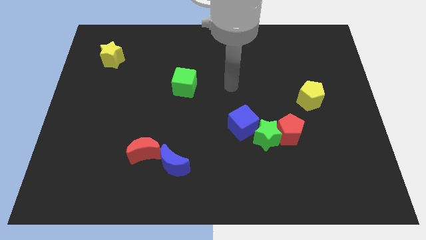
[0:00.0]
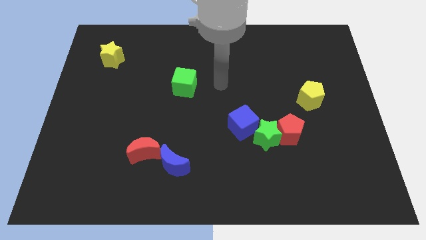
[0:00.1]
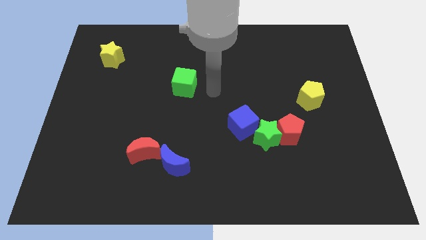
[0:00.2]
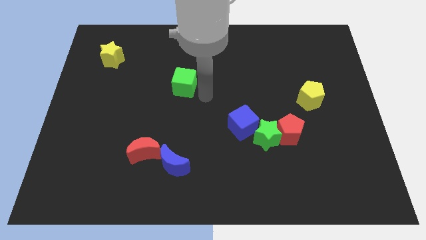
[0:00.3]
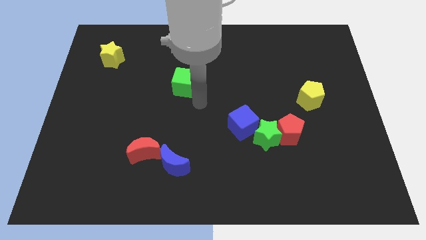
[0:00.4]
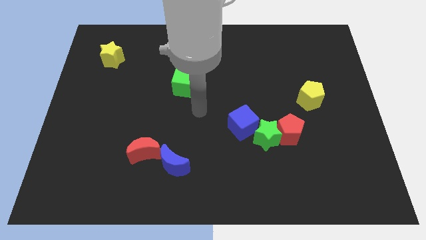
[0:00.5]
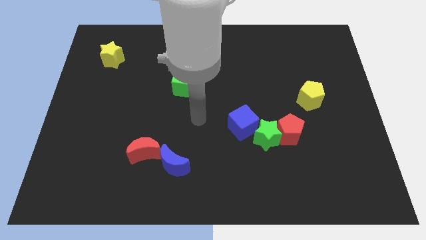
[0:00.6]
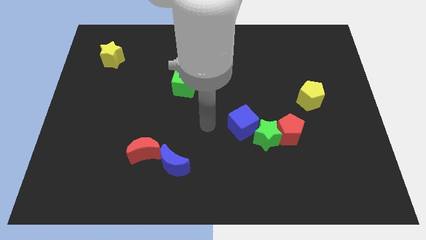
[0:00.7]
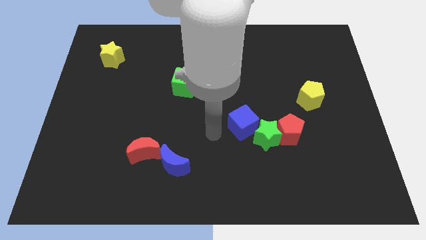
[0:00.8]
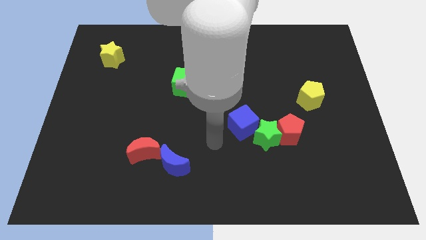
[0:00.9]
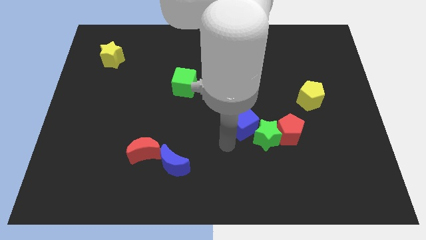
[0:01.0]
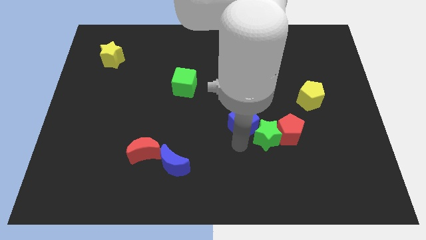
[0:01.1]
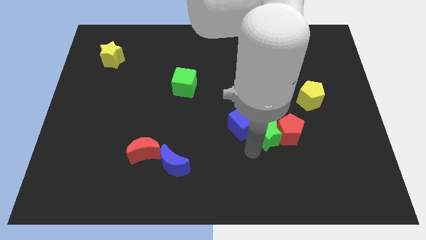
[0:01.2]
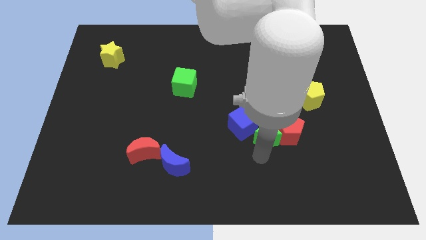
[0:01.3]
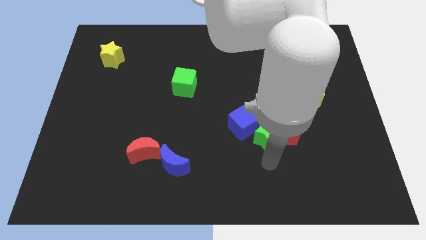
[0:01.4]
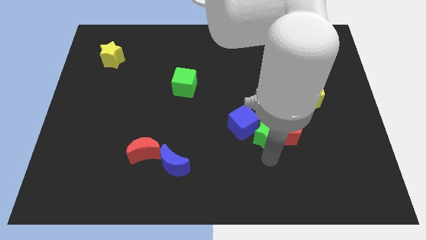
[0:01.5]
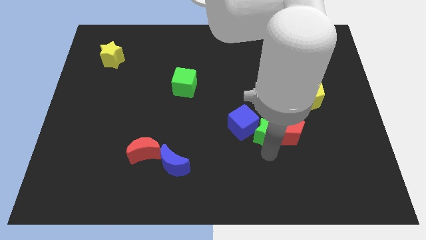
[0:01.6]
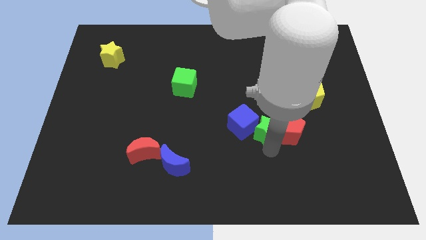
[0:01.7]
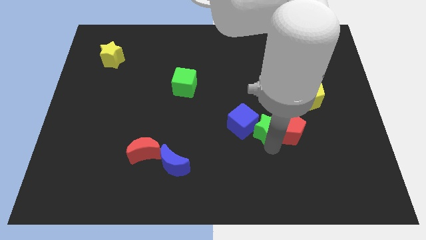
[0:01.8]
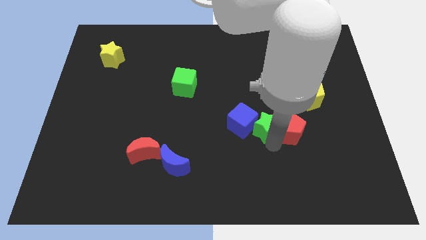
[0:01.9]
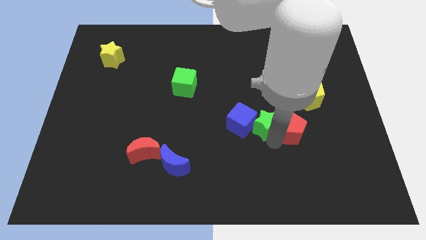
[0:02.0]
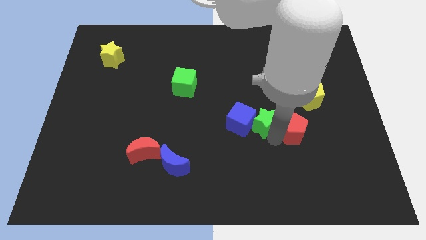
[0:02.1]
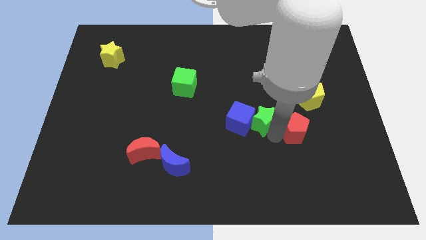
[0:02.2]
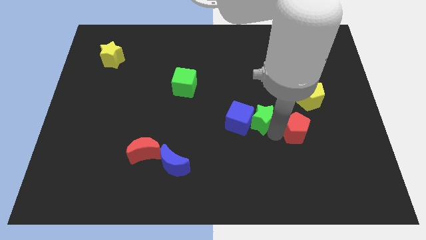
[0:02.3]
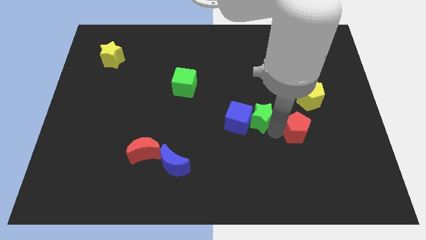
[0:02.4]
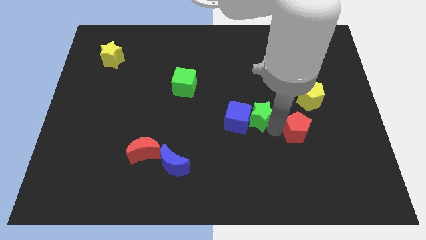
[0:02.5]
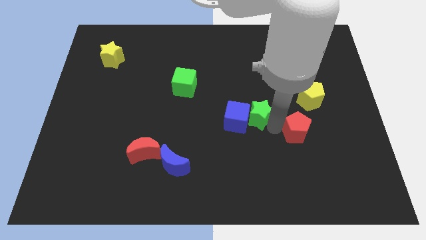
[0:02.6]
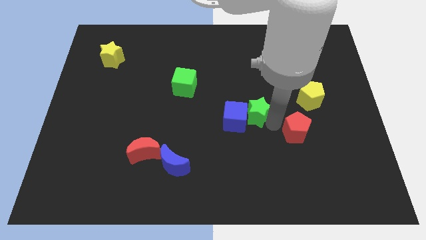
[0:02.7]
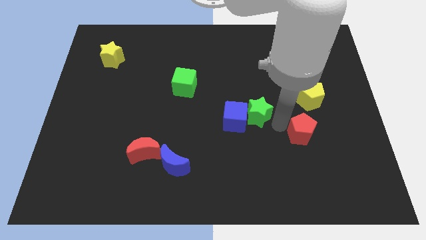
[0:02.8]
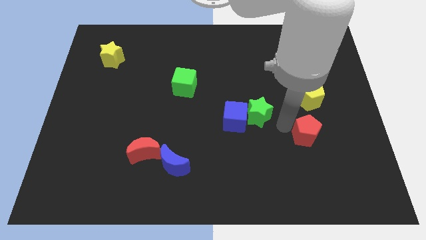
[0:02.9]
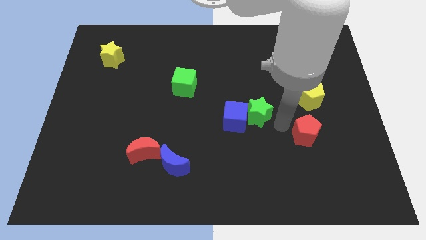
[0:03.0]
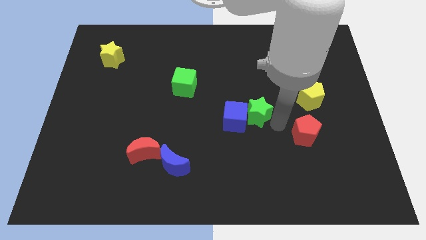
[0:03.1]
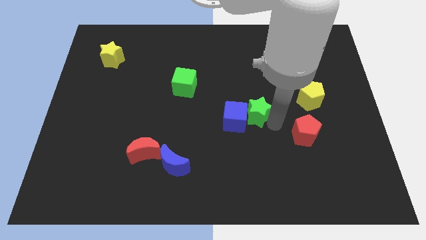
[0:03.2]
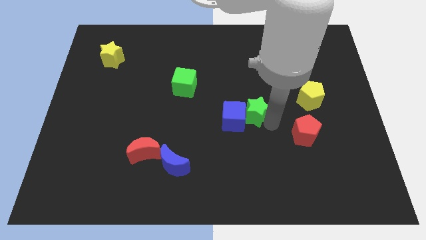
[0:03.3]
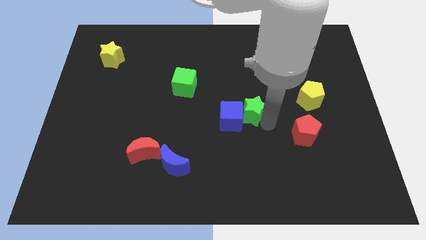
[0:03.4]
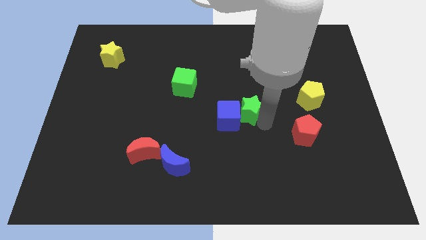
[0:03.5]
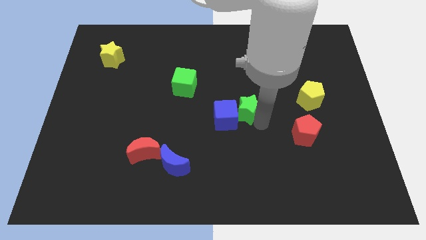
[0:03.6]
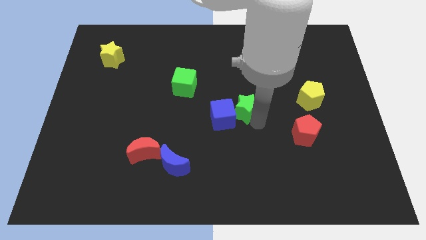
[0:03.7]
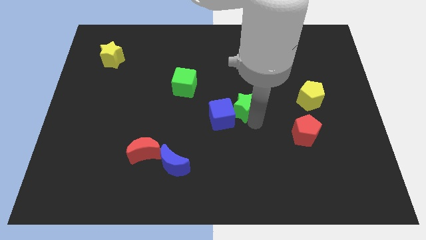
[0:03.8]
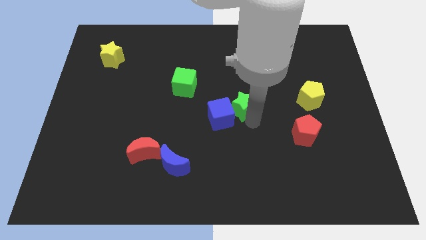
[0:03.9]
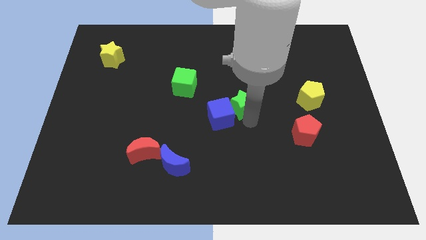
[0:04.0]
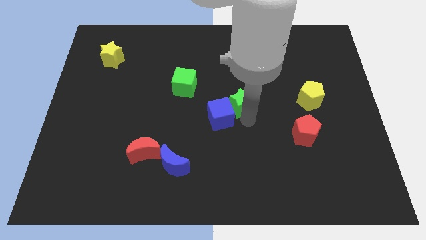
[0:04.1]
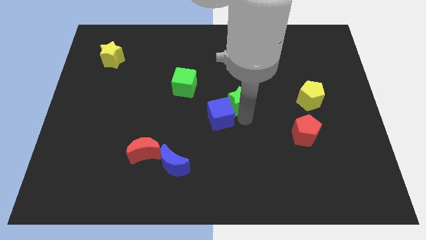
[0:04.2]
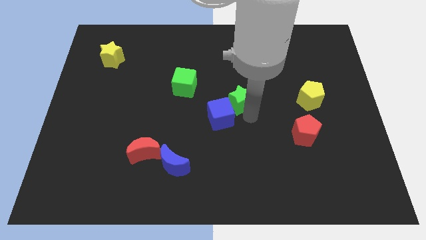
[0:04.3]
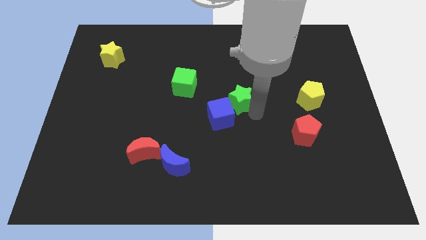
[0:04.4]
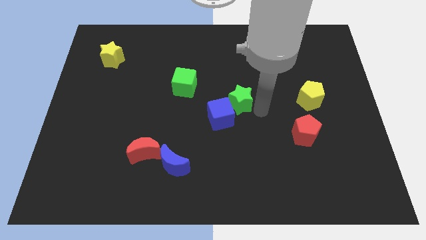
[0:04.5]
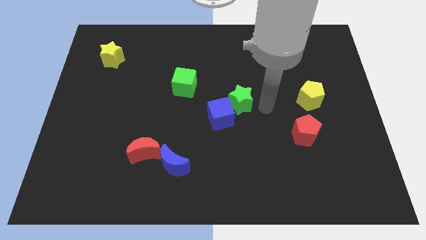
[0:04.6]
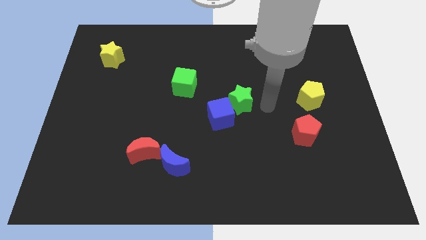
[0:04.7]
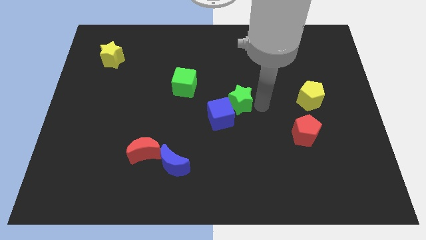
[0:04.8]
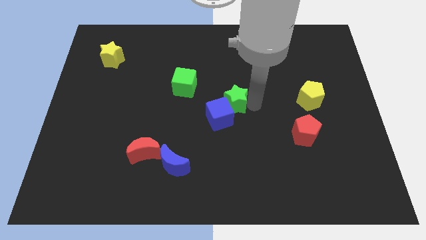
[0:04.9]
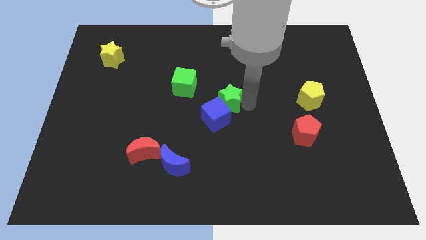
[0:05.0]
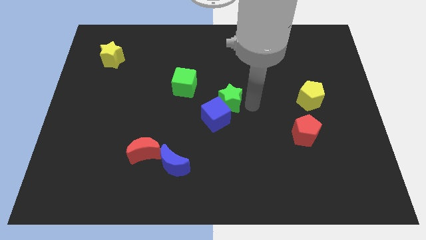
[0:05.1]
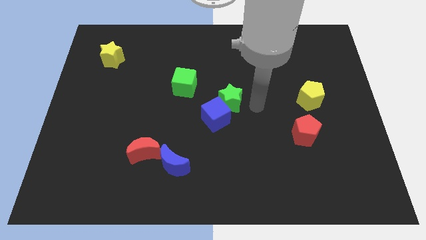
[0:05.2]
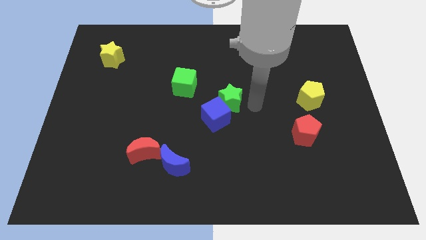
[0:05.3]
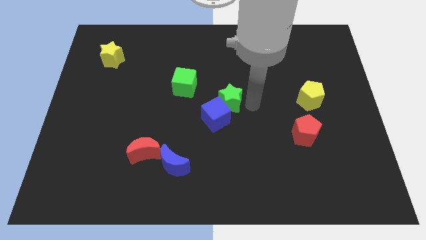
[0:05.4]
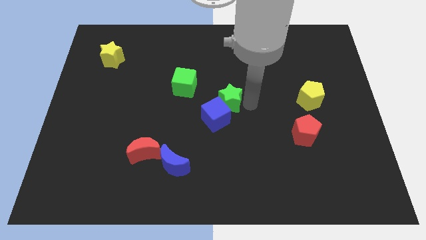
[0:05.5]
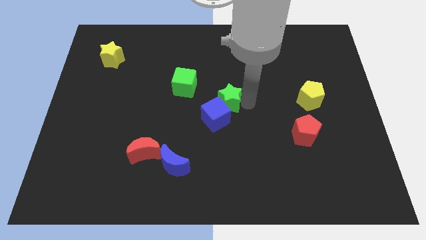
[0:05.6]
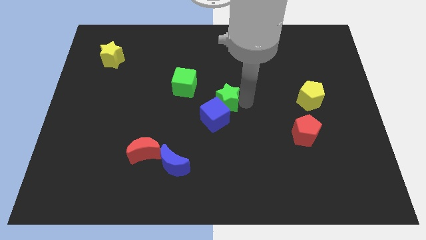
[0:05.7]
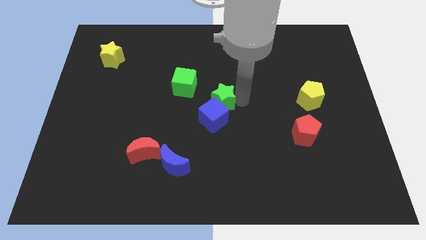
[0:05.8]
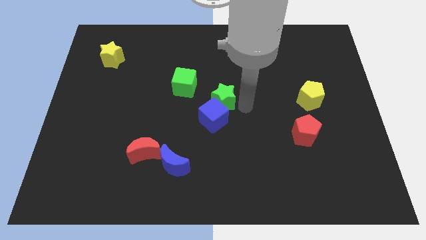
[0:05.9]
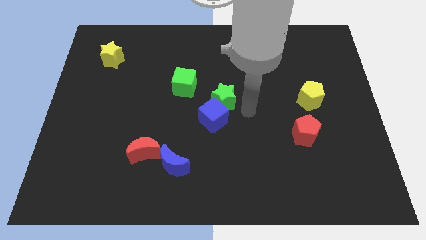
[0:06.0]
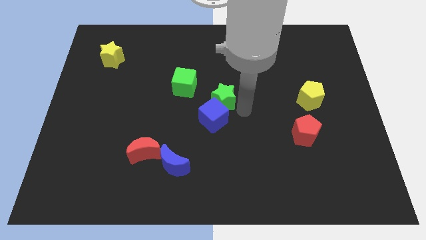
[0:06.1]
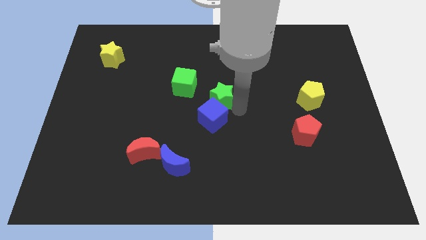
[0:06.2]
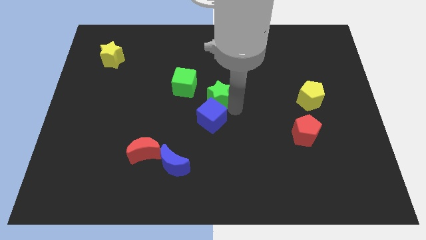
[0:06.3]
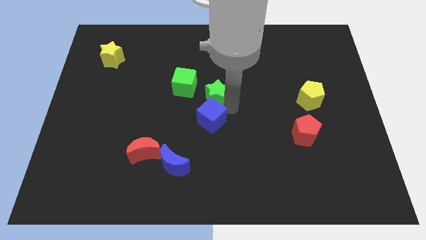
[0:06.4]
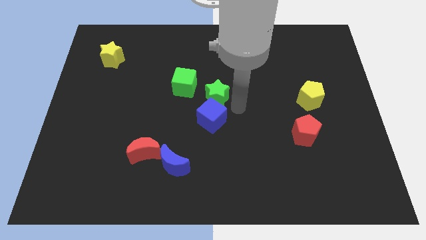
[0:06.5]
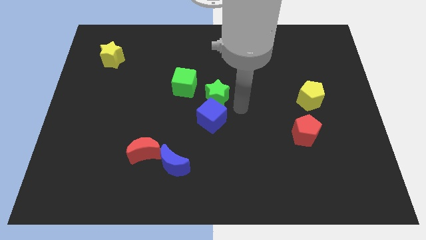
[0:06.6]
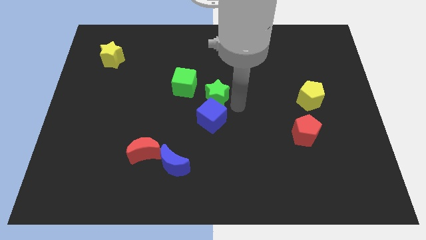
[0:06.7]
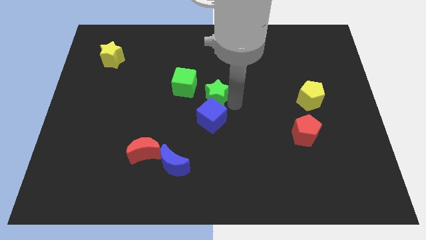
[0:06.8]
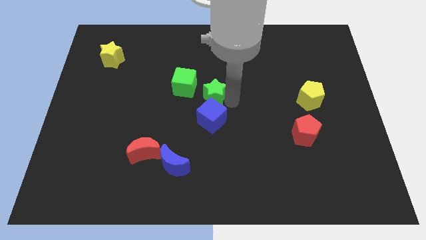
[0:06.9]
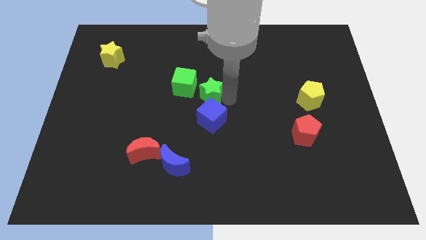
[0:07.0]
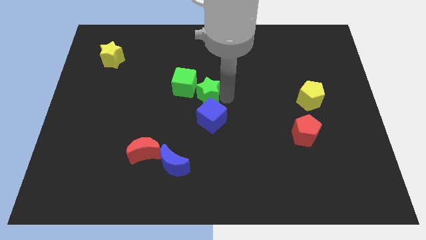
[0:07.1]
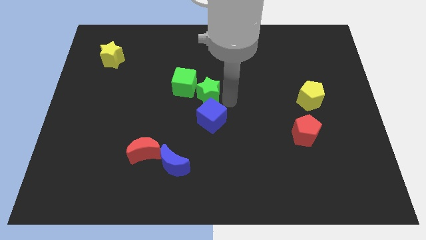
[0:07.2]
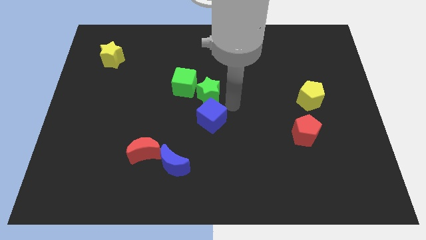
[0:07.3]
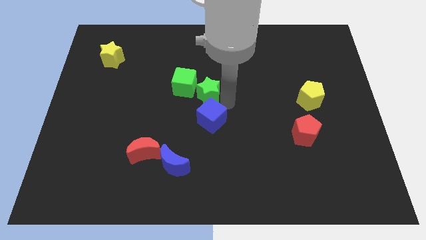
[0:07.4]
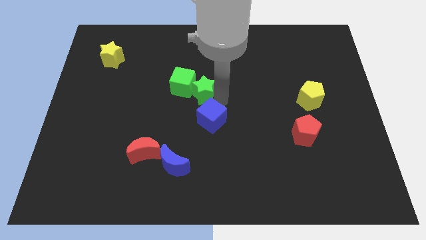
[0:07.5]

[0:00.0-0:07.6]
slide the green star close to the green cube
